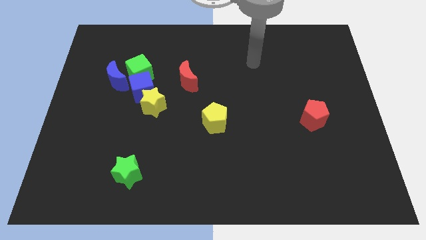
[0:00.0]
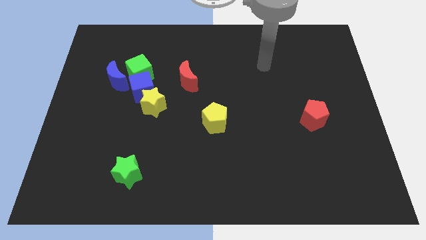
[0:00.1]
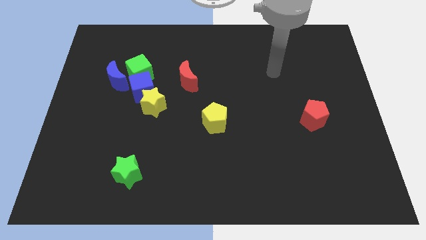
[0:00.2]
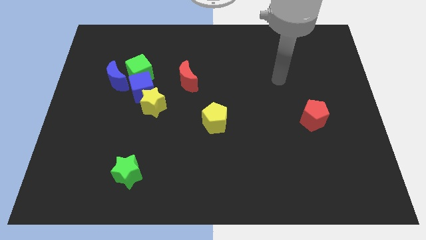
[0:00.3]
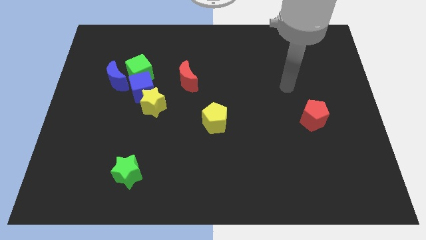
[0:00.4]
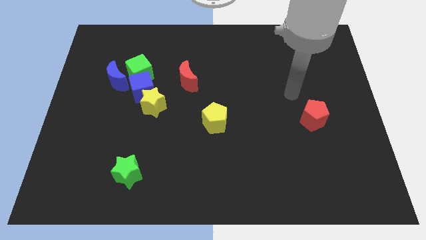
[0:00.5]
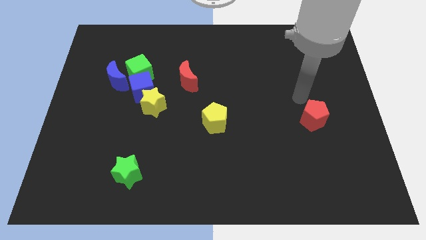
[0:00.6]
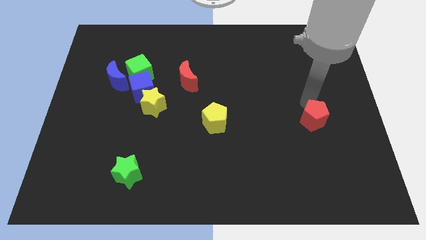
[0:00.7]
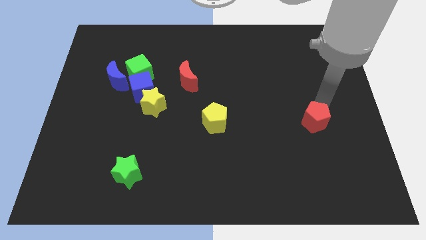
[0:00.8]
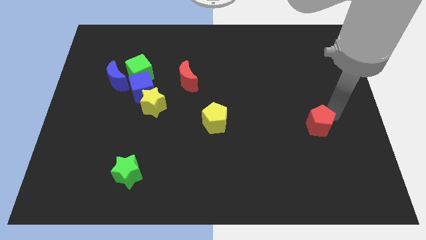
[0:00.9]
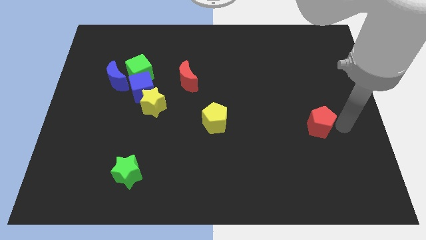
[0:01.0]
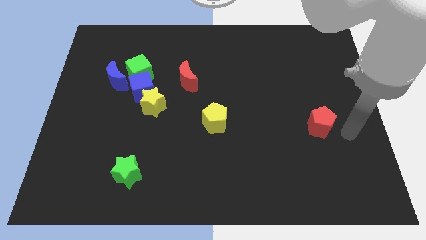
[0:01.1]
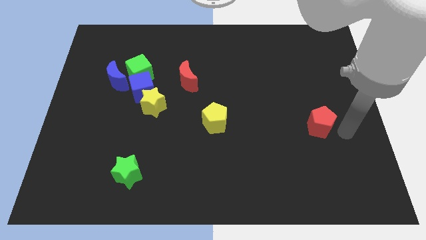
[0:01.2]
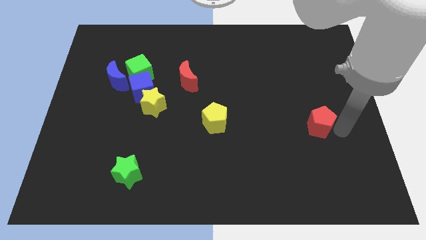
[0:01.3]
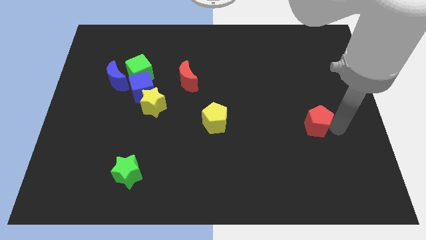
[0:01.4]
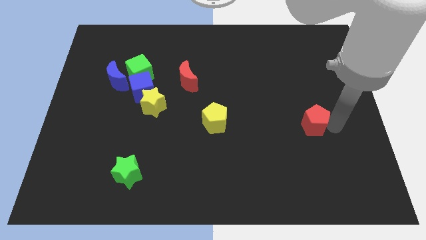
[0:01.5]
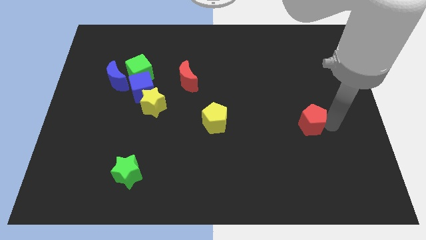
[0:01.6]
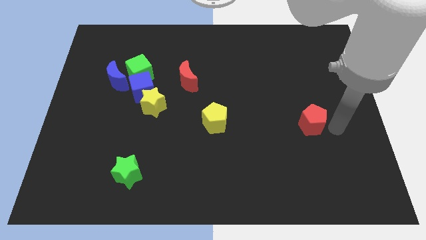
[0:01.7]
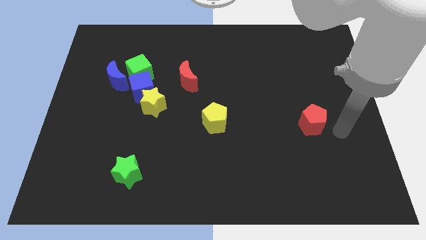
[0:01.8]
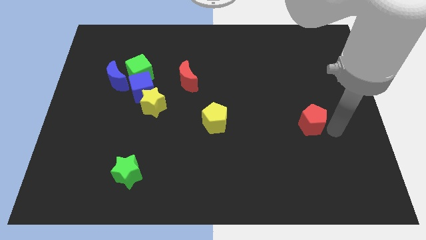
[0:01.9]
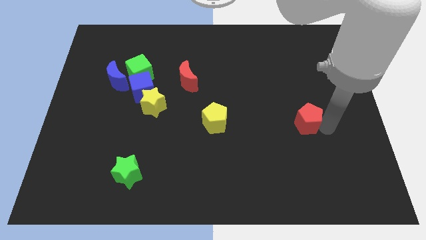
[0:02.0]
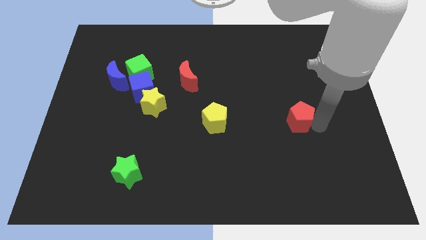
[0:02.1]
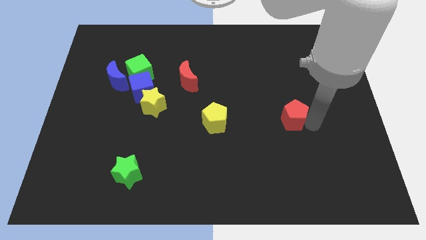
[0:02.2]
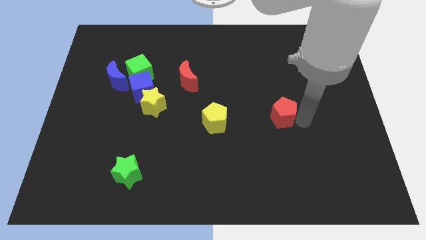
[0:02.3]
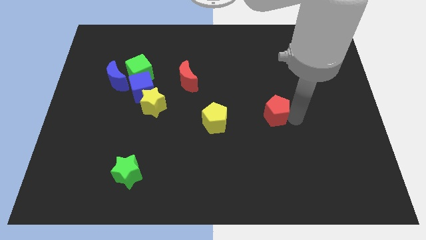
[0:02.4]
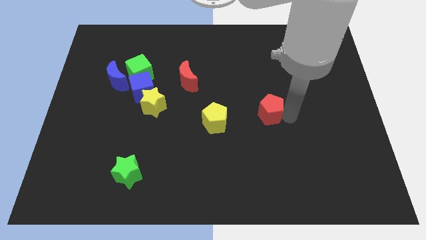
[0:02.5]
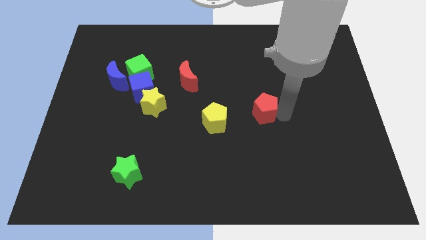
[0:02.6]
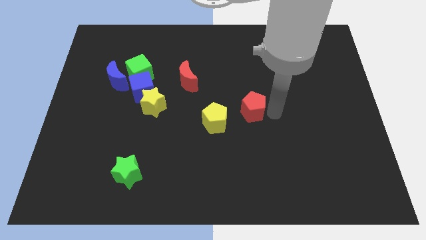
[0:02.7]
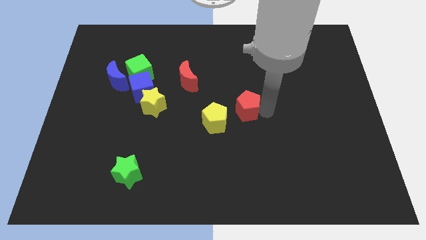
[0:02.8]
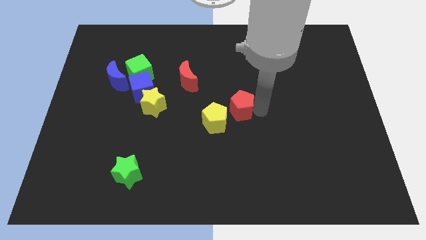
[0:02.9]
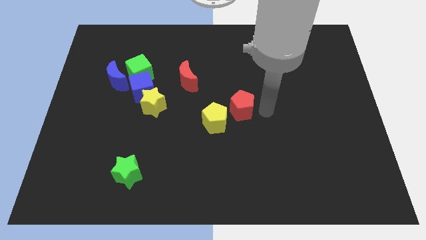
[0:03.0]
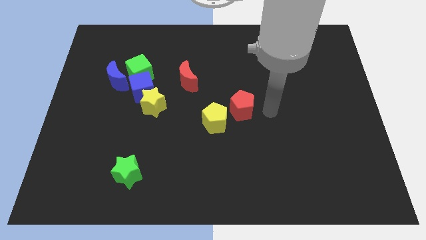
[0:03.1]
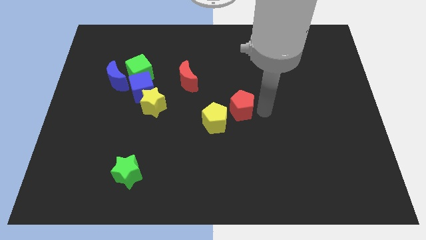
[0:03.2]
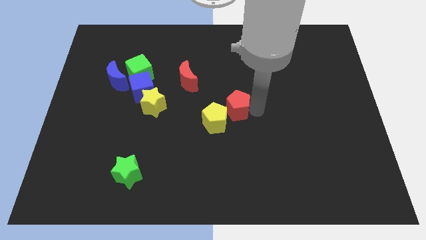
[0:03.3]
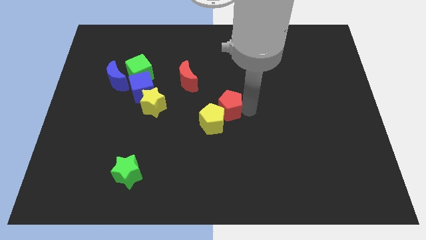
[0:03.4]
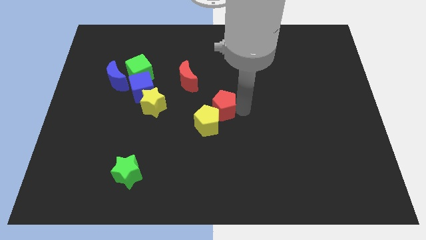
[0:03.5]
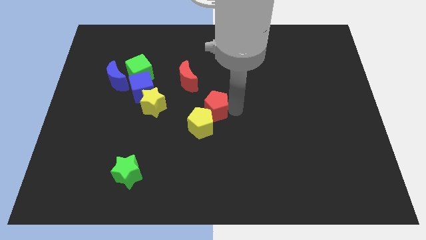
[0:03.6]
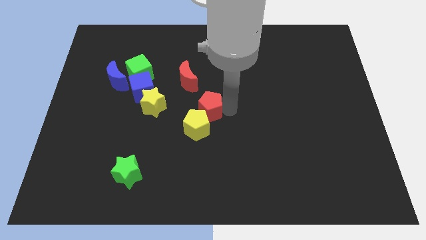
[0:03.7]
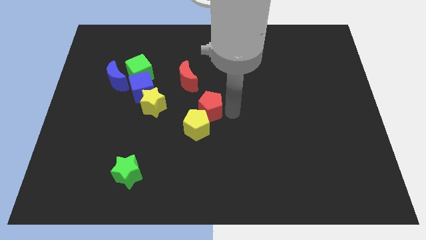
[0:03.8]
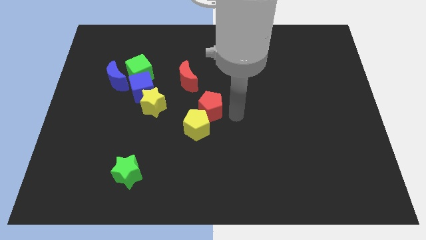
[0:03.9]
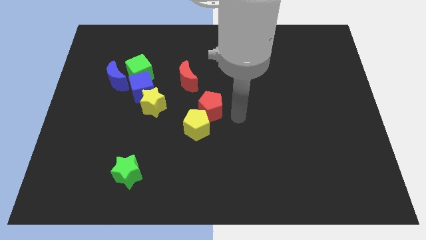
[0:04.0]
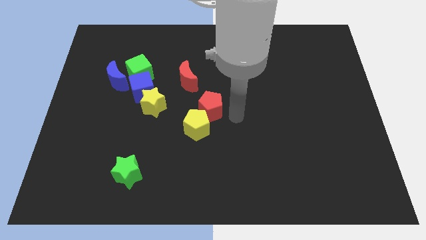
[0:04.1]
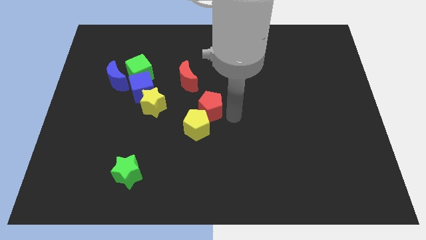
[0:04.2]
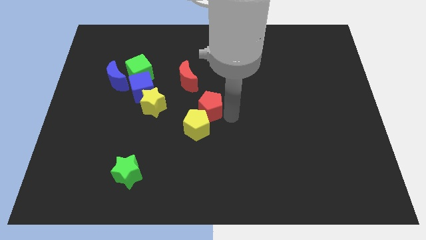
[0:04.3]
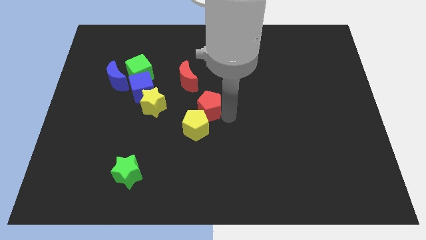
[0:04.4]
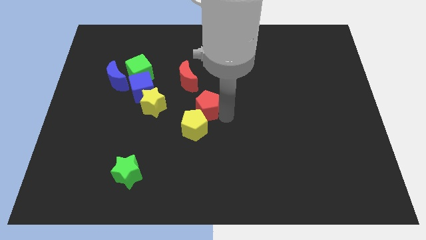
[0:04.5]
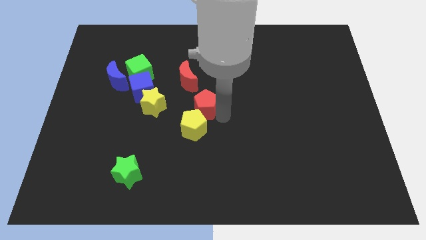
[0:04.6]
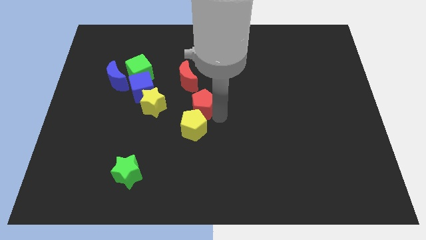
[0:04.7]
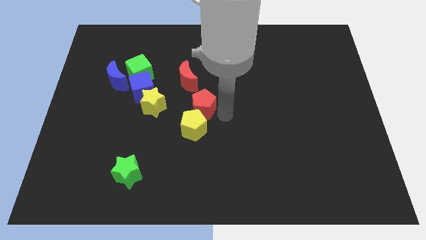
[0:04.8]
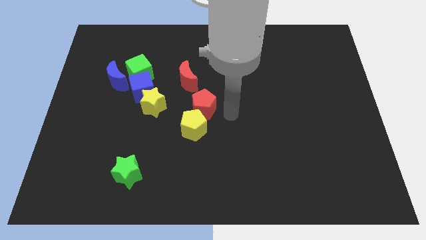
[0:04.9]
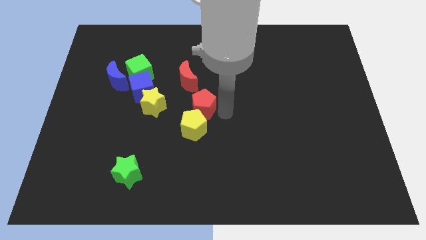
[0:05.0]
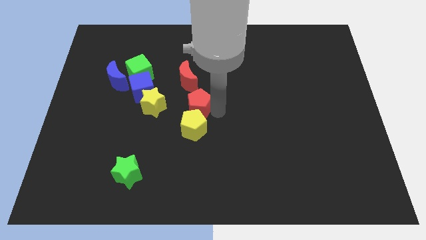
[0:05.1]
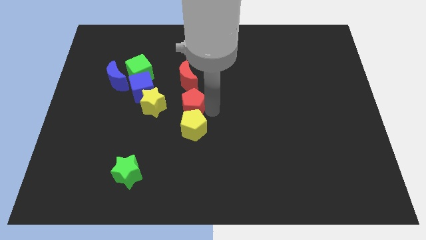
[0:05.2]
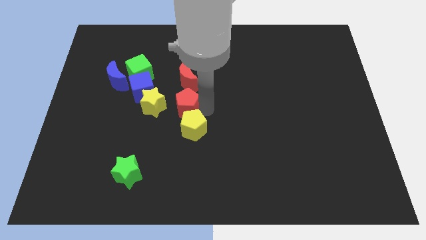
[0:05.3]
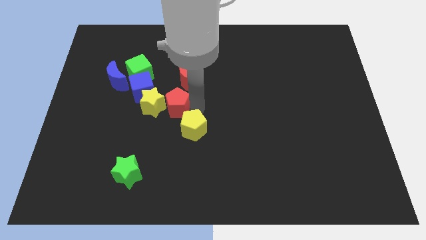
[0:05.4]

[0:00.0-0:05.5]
push the red pentagon next to the yellow star

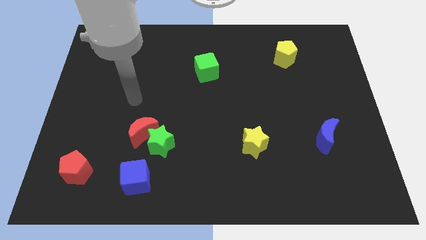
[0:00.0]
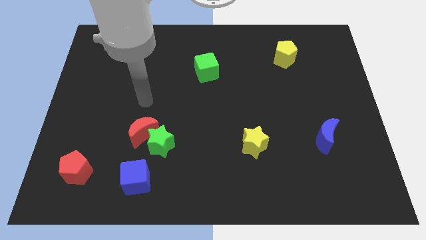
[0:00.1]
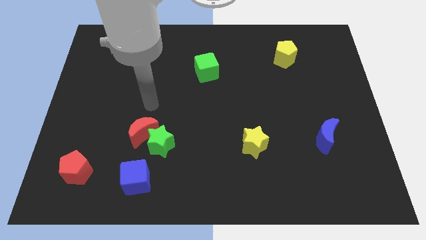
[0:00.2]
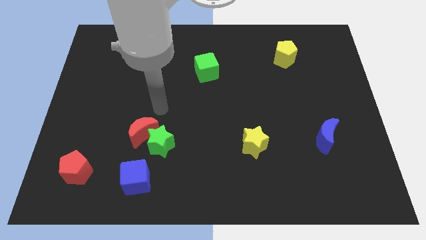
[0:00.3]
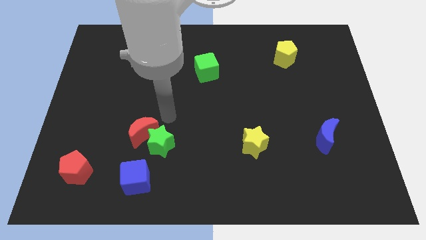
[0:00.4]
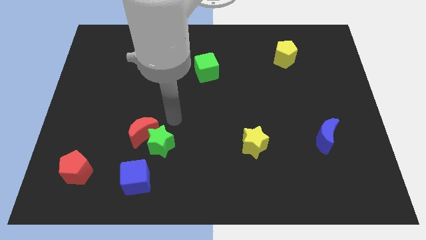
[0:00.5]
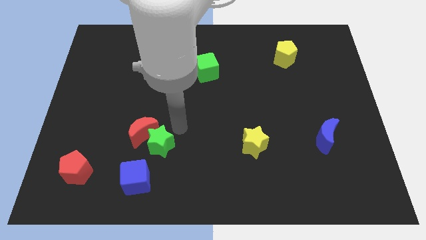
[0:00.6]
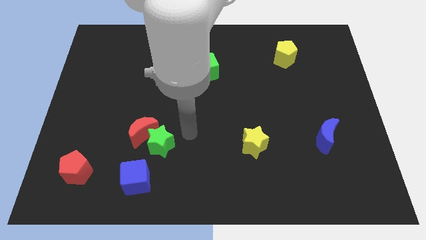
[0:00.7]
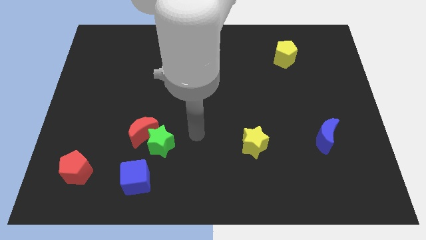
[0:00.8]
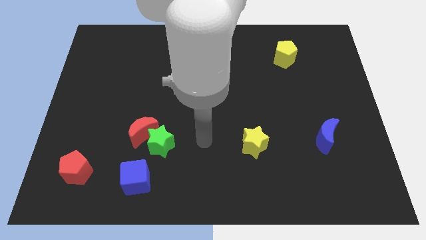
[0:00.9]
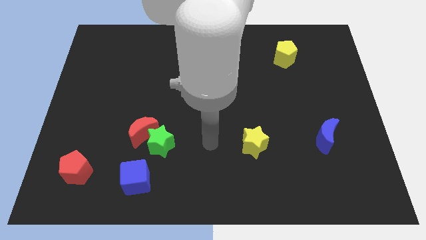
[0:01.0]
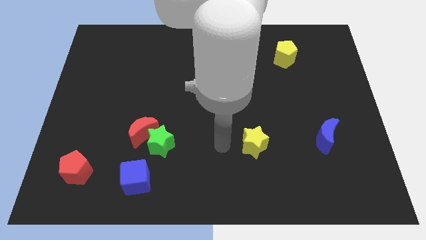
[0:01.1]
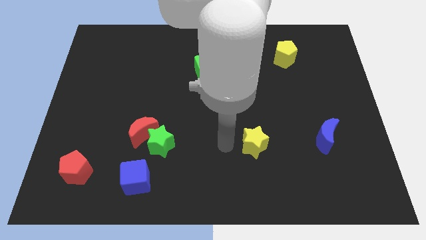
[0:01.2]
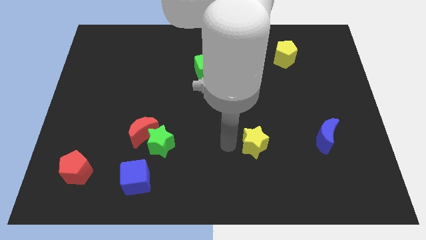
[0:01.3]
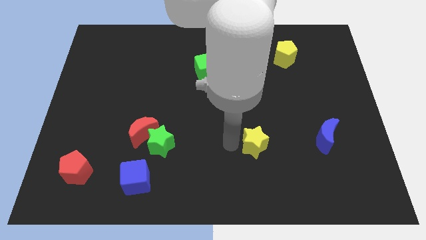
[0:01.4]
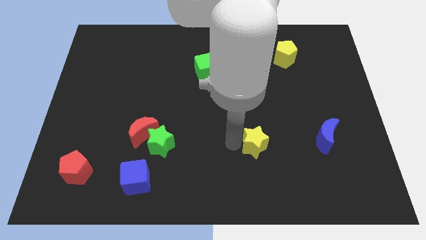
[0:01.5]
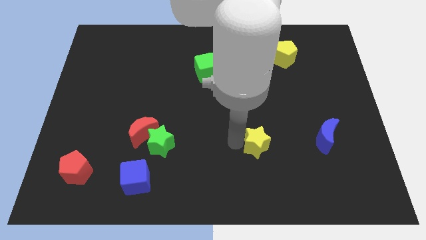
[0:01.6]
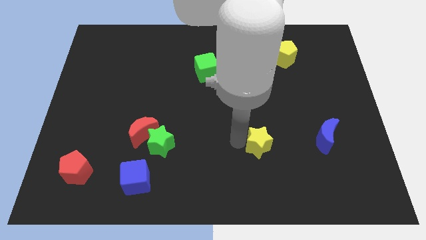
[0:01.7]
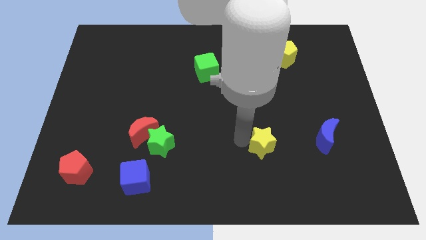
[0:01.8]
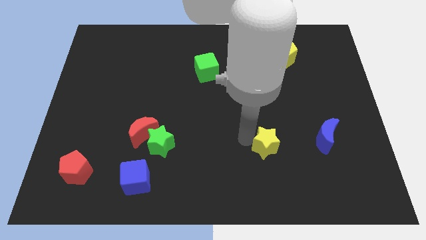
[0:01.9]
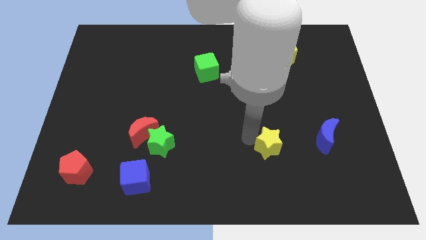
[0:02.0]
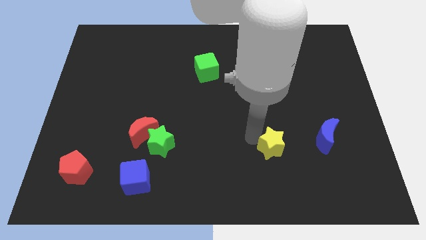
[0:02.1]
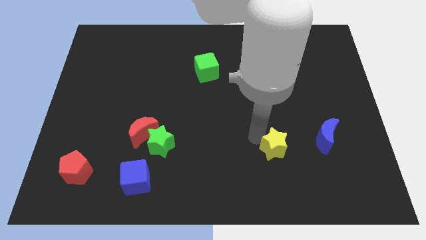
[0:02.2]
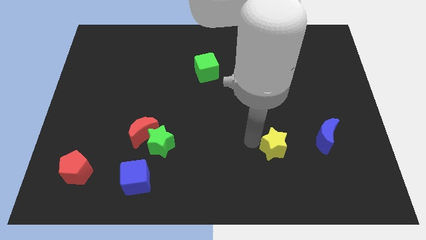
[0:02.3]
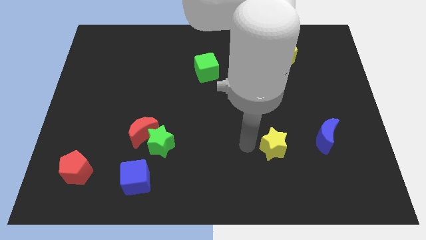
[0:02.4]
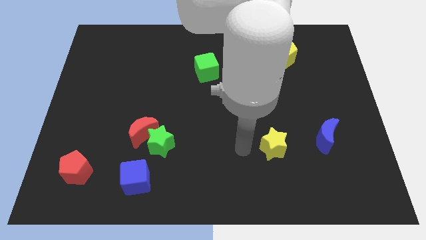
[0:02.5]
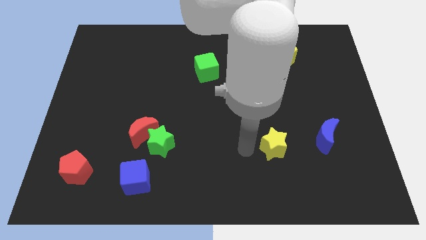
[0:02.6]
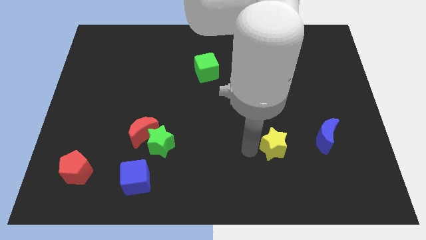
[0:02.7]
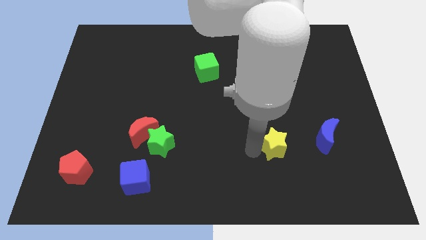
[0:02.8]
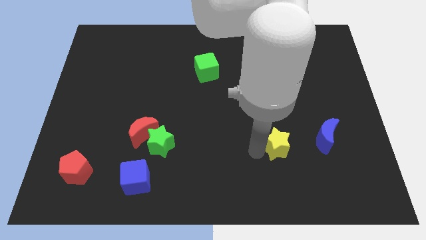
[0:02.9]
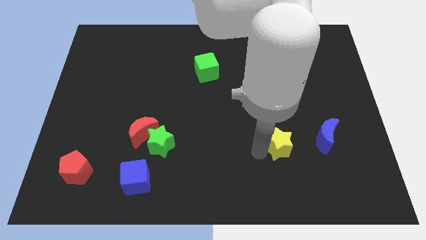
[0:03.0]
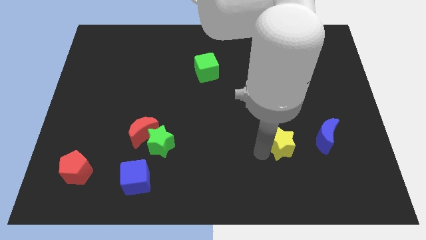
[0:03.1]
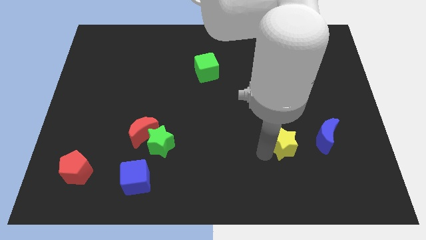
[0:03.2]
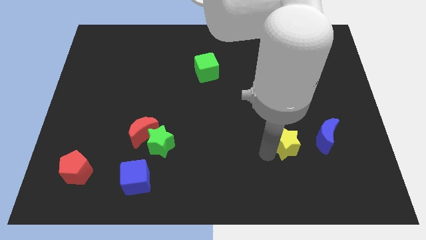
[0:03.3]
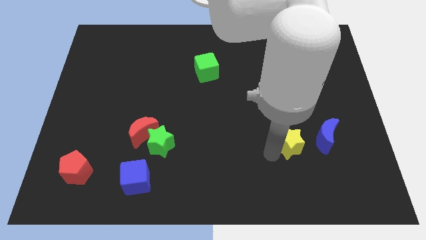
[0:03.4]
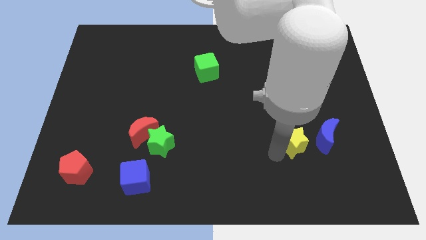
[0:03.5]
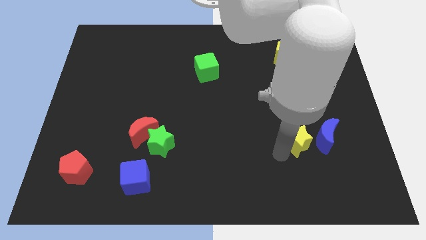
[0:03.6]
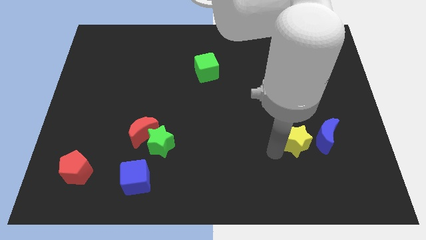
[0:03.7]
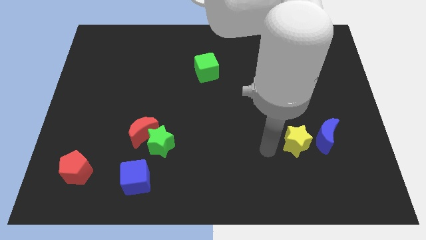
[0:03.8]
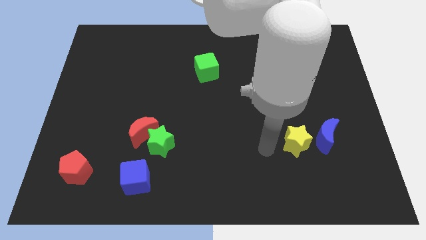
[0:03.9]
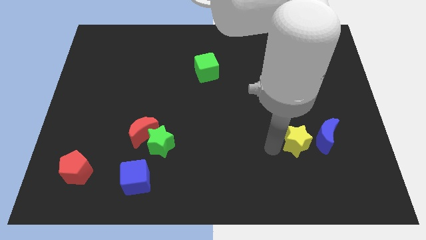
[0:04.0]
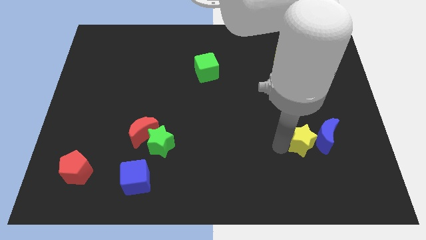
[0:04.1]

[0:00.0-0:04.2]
move the yellow star to the blue moon
